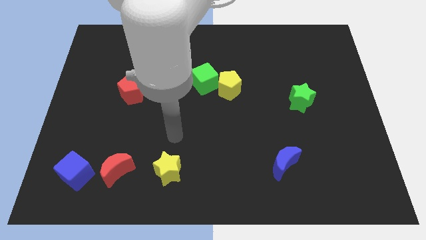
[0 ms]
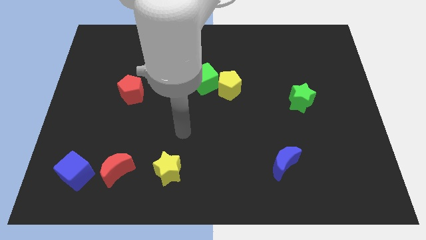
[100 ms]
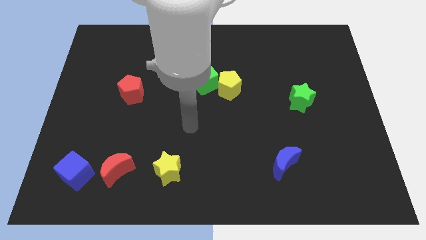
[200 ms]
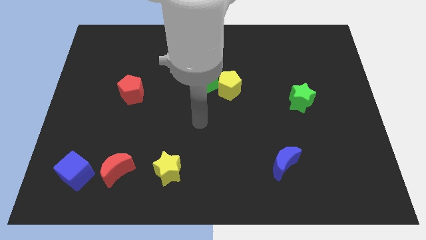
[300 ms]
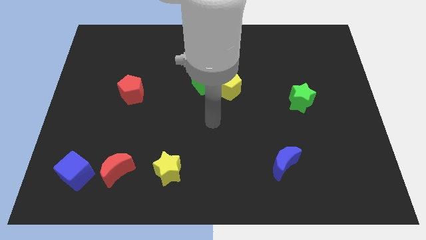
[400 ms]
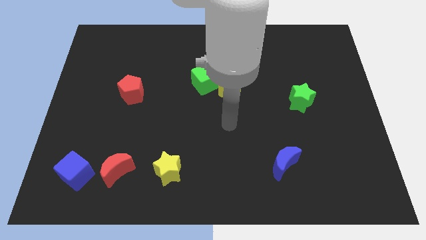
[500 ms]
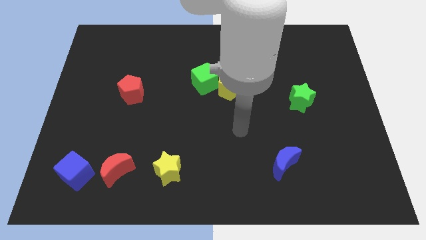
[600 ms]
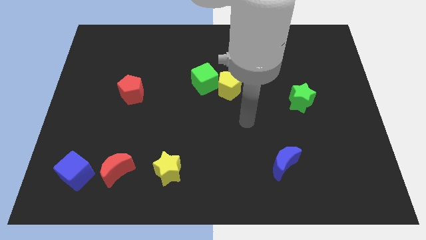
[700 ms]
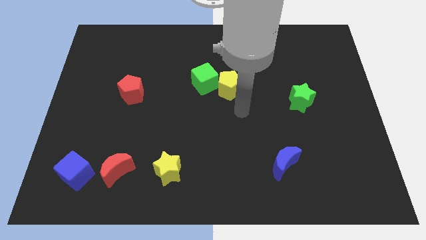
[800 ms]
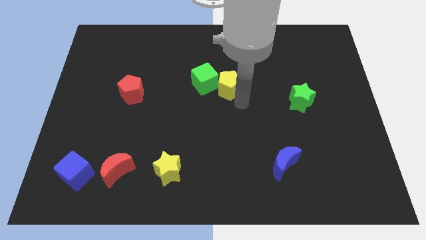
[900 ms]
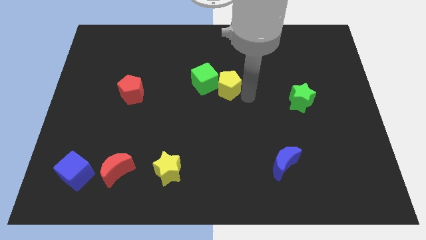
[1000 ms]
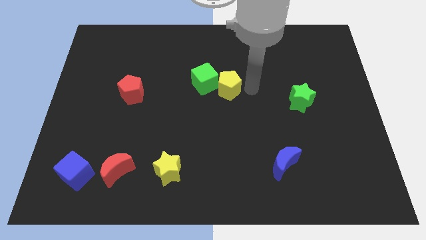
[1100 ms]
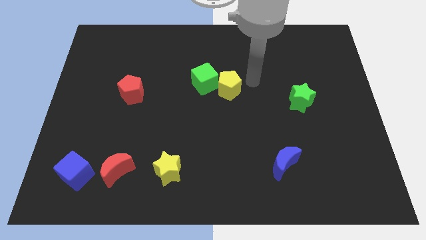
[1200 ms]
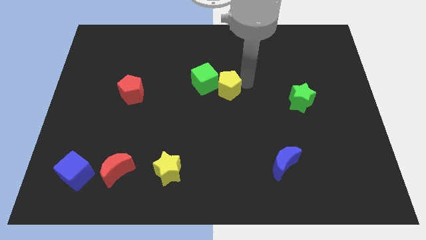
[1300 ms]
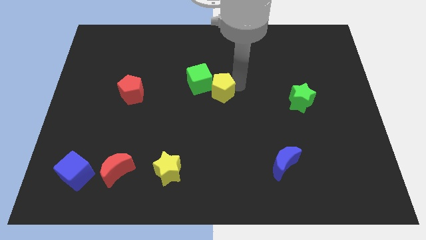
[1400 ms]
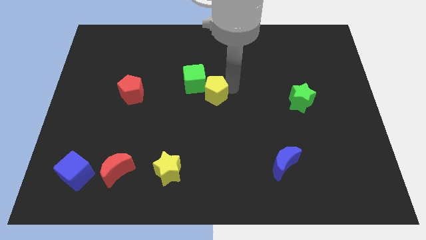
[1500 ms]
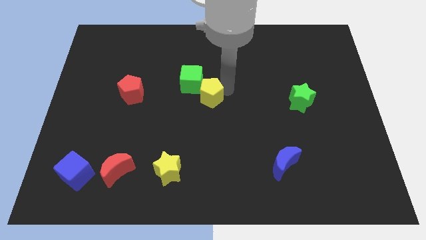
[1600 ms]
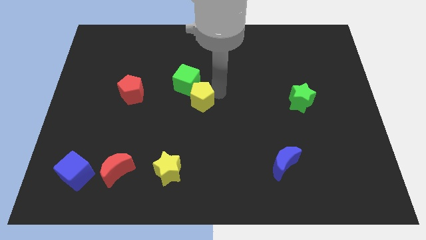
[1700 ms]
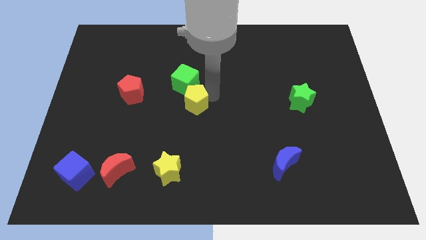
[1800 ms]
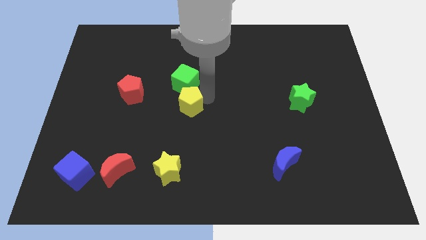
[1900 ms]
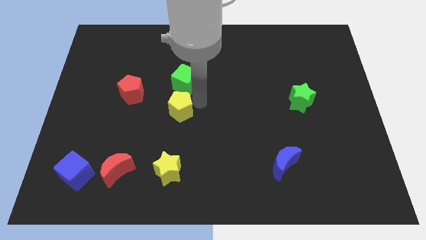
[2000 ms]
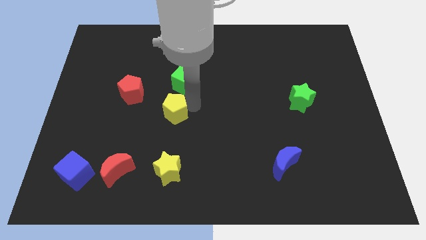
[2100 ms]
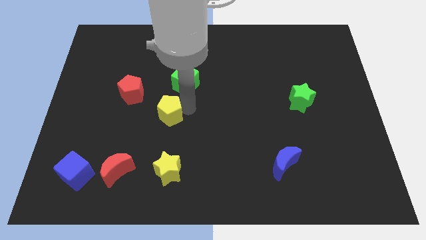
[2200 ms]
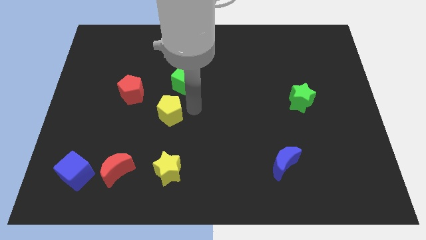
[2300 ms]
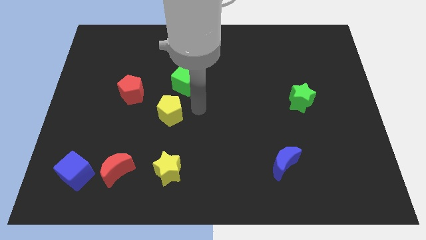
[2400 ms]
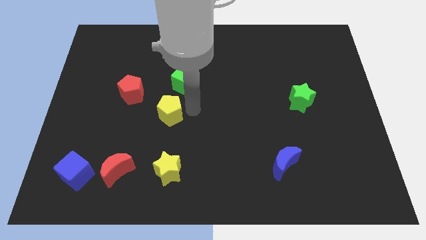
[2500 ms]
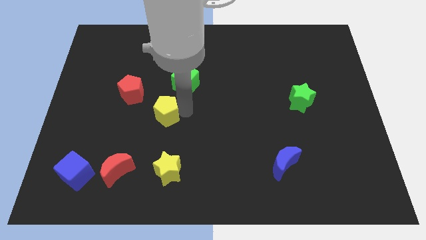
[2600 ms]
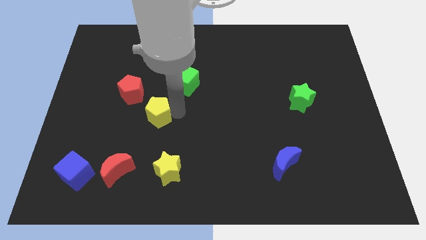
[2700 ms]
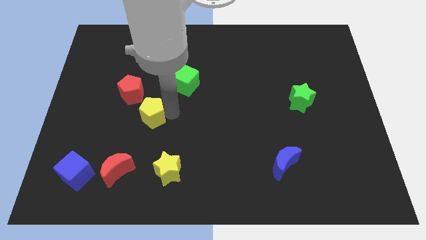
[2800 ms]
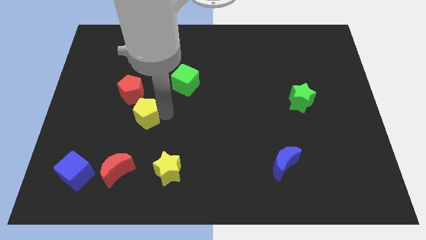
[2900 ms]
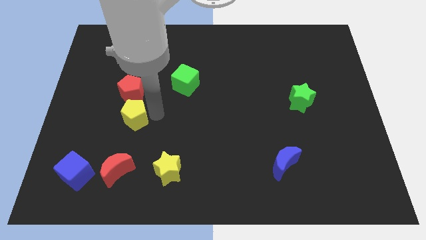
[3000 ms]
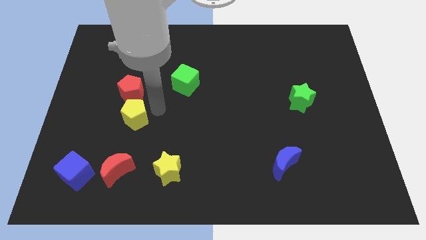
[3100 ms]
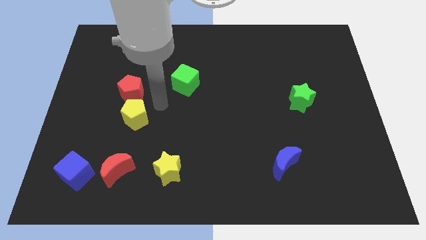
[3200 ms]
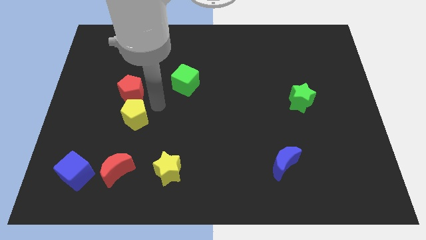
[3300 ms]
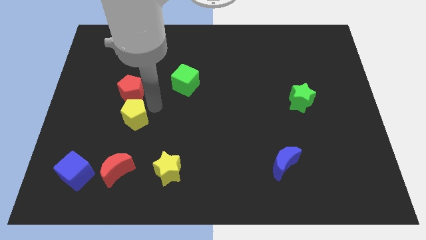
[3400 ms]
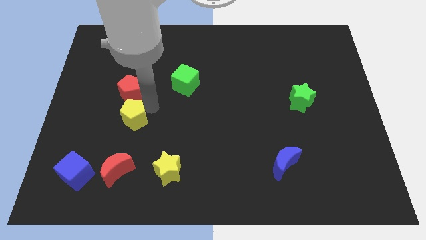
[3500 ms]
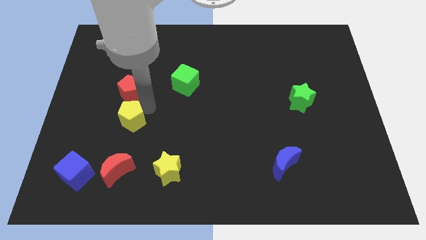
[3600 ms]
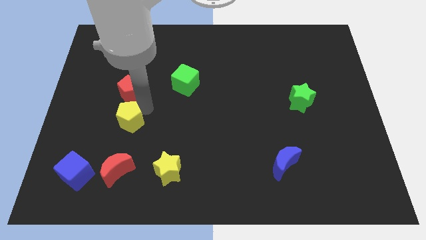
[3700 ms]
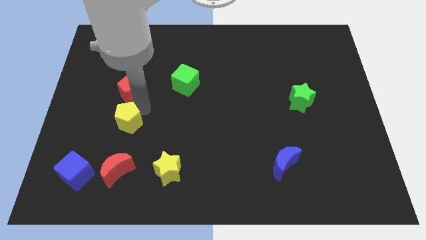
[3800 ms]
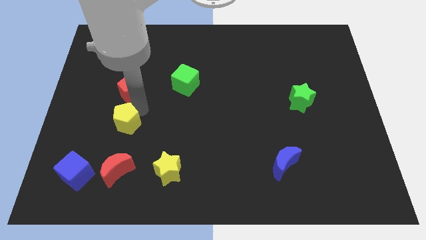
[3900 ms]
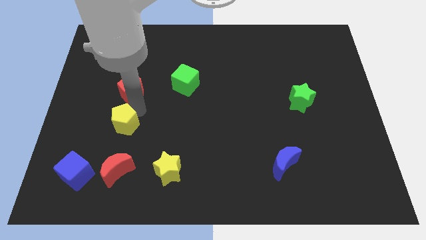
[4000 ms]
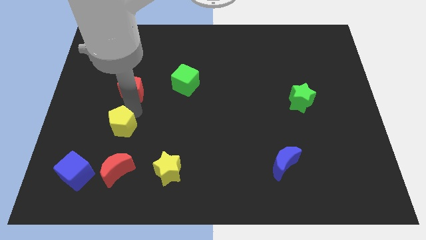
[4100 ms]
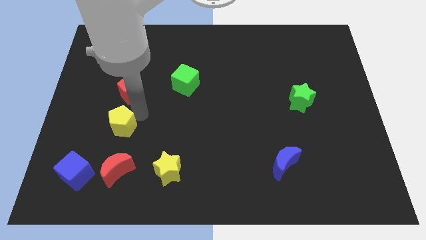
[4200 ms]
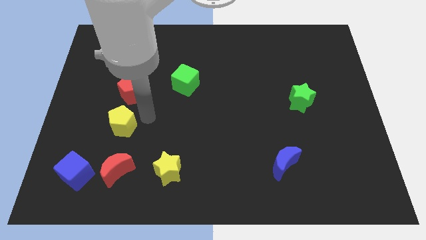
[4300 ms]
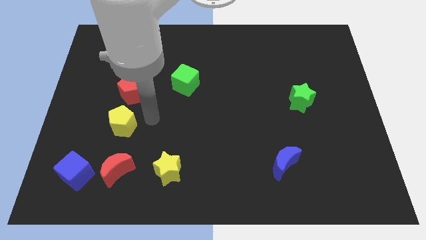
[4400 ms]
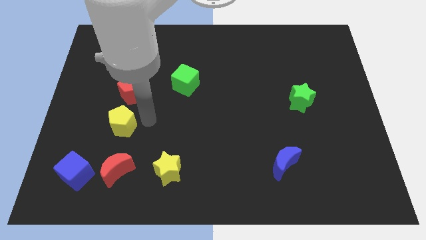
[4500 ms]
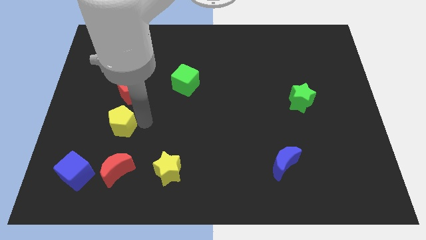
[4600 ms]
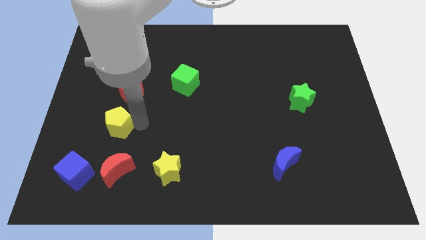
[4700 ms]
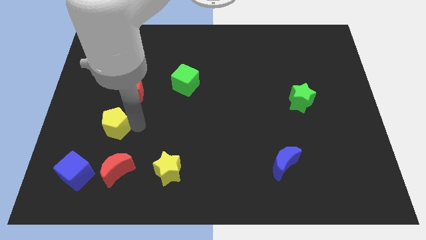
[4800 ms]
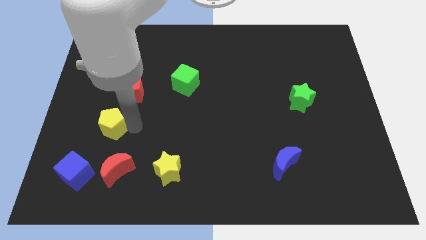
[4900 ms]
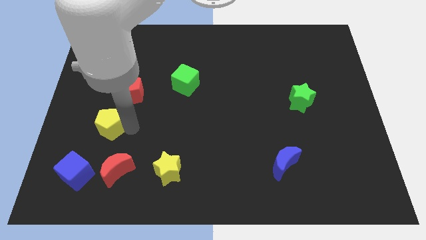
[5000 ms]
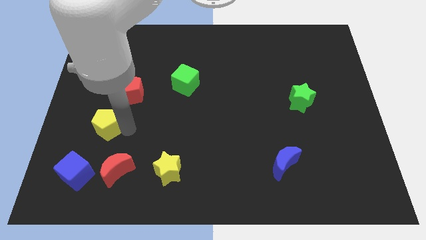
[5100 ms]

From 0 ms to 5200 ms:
move the yellow pentagon to the top side of the blue cube

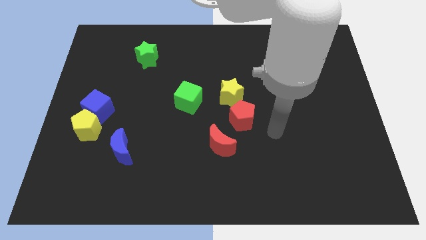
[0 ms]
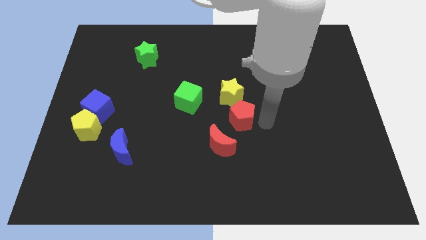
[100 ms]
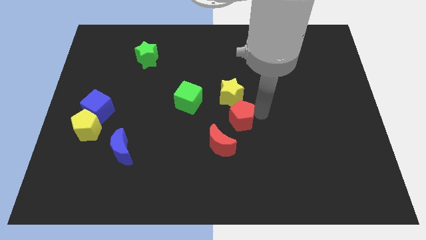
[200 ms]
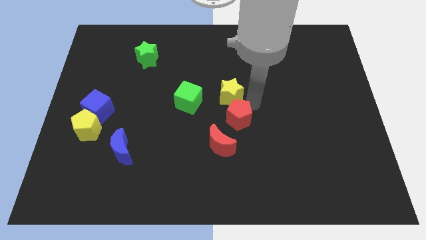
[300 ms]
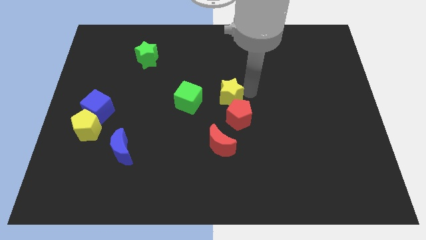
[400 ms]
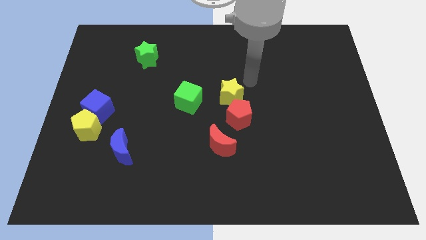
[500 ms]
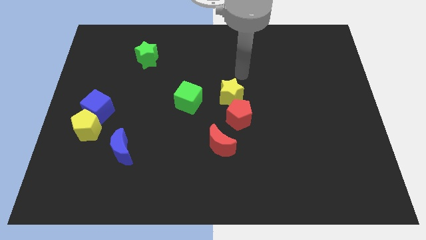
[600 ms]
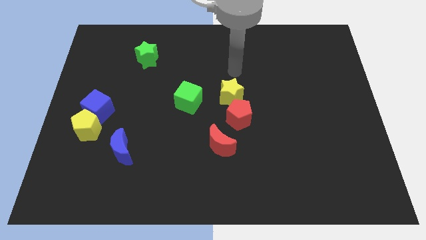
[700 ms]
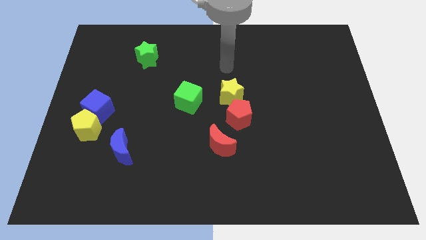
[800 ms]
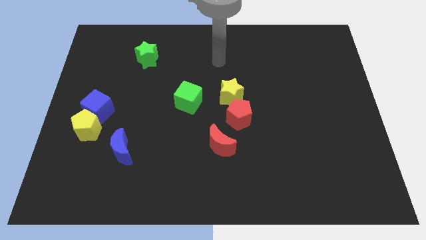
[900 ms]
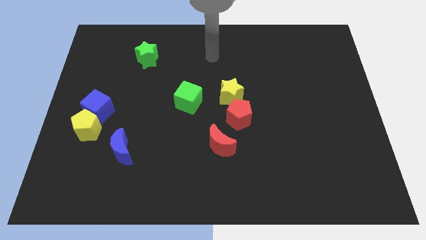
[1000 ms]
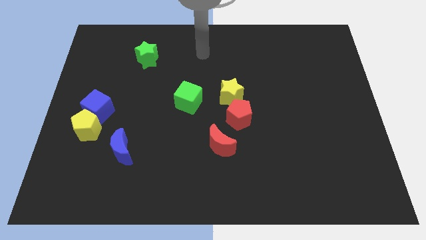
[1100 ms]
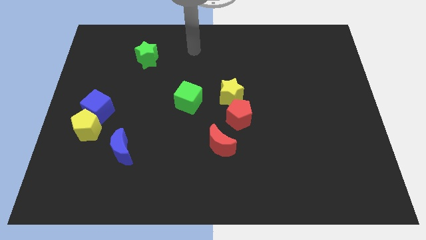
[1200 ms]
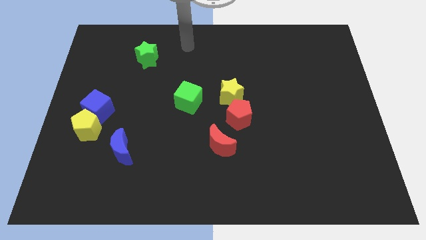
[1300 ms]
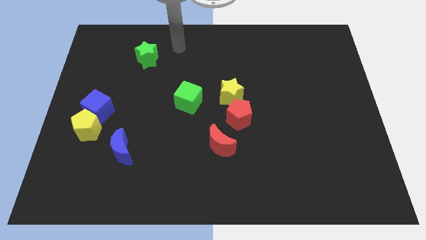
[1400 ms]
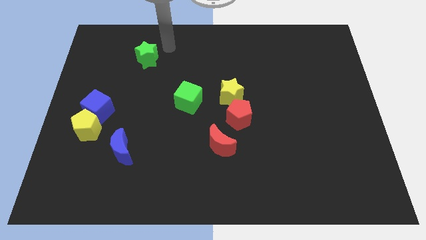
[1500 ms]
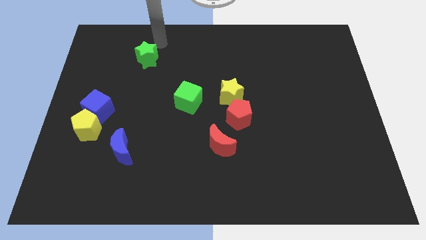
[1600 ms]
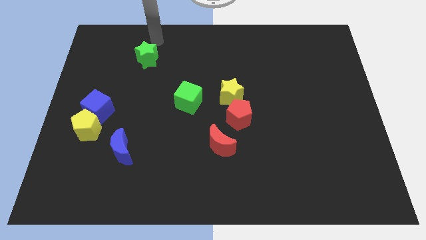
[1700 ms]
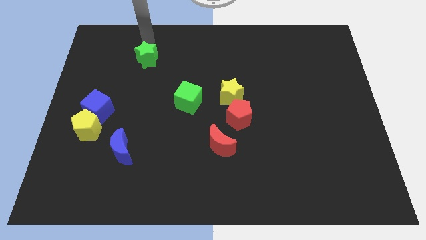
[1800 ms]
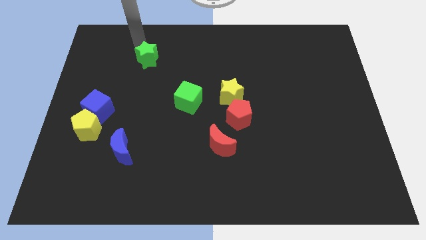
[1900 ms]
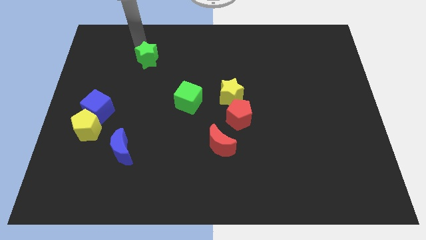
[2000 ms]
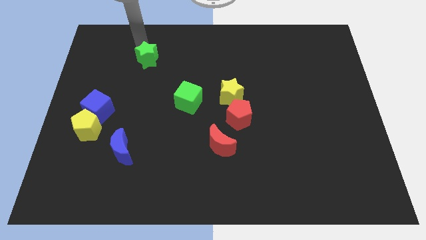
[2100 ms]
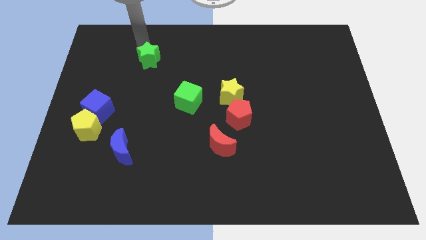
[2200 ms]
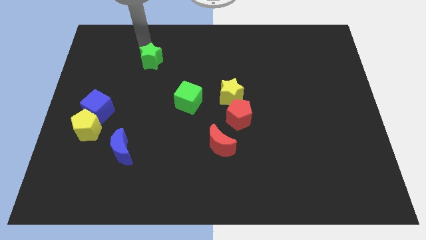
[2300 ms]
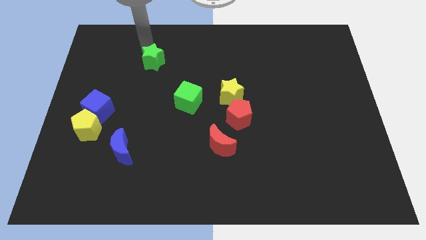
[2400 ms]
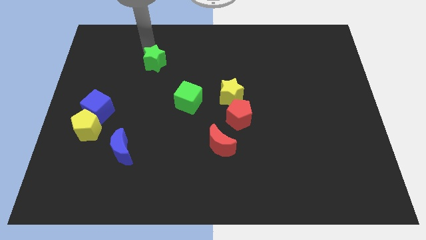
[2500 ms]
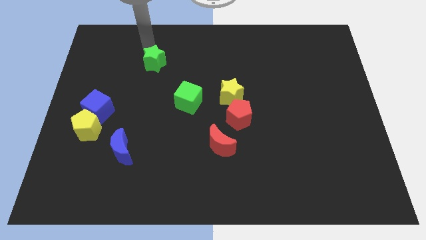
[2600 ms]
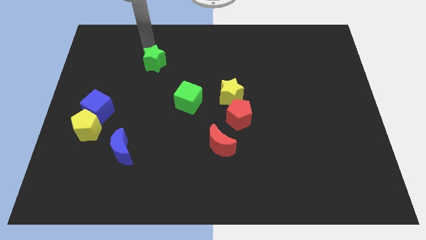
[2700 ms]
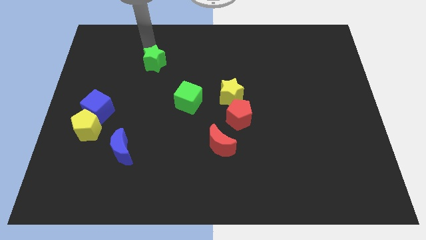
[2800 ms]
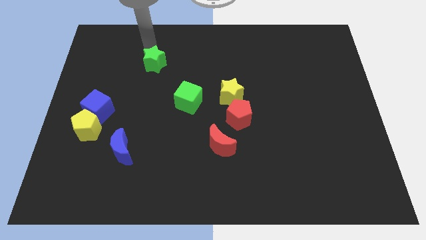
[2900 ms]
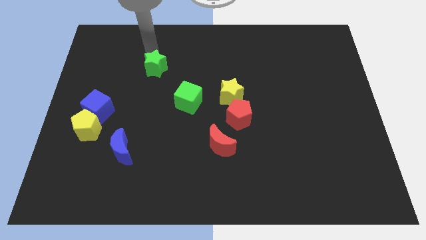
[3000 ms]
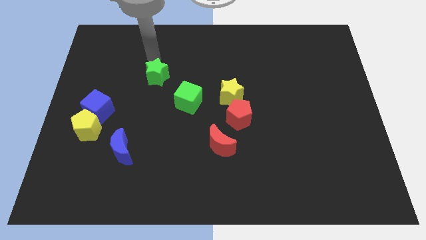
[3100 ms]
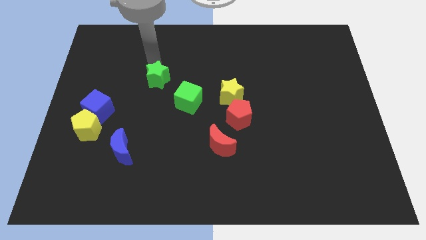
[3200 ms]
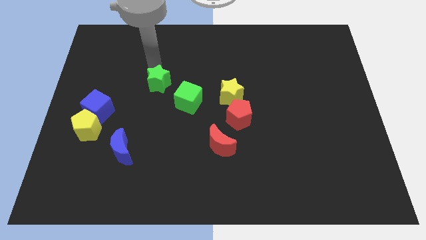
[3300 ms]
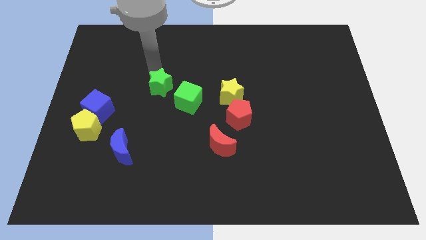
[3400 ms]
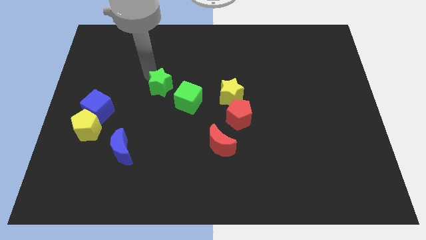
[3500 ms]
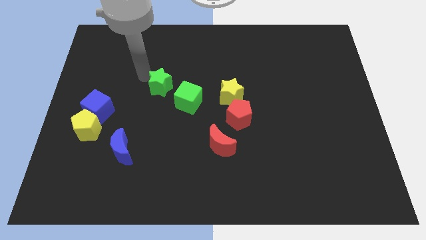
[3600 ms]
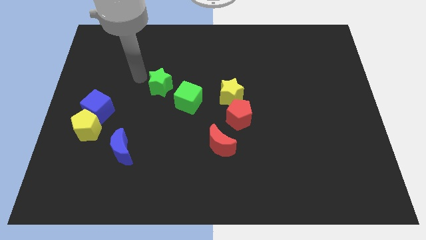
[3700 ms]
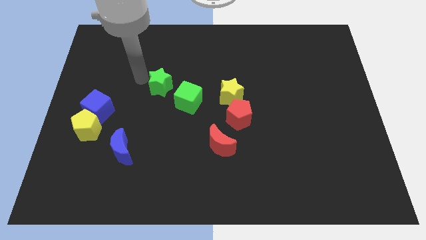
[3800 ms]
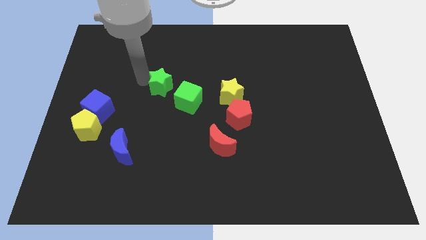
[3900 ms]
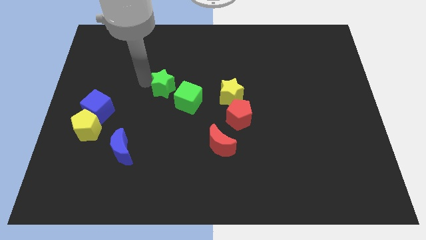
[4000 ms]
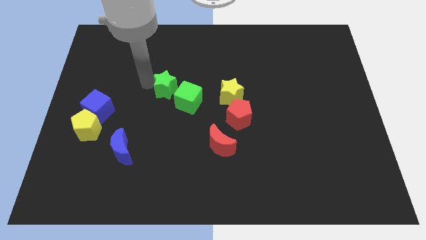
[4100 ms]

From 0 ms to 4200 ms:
push the green star to the left side of the yellow star
